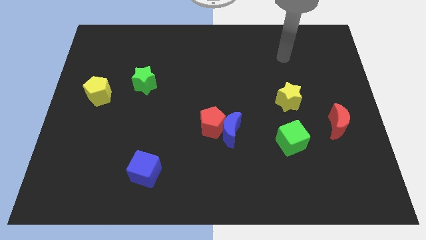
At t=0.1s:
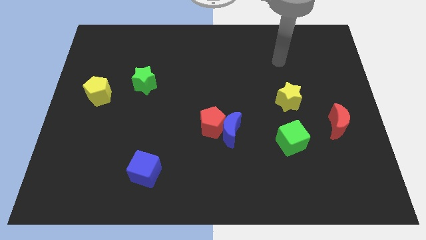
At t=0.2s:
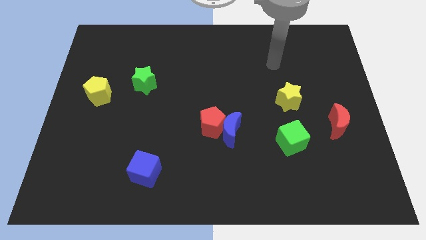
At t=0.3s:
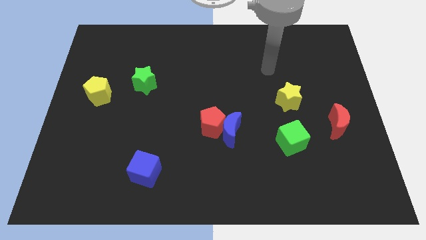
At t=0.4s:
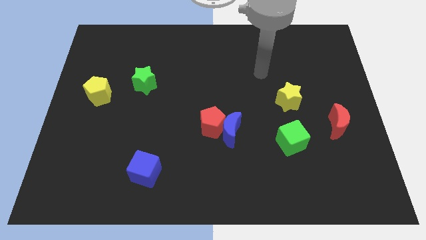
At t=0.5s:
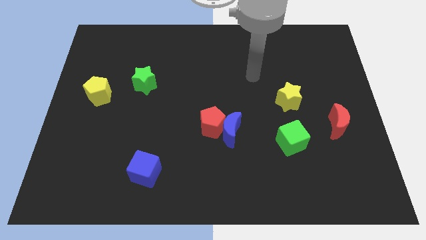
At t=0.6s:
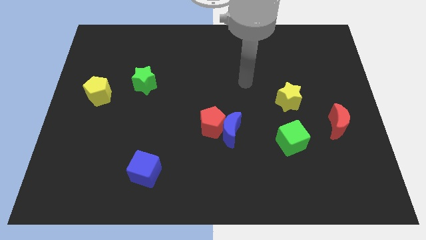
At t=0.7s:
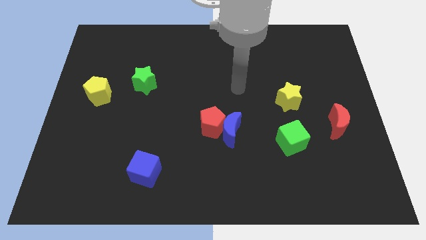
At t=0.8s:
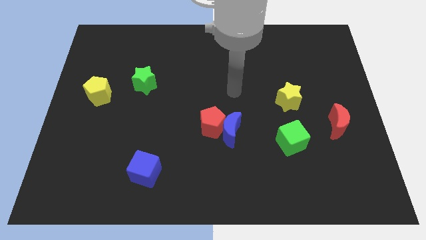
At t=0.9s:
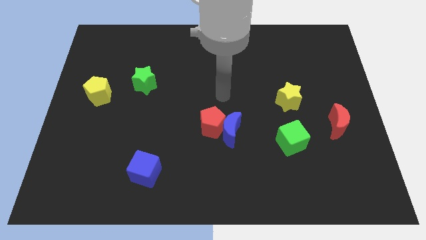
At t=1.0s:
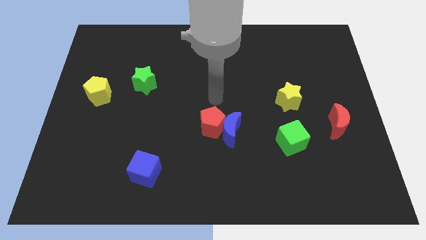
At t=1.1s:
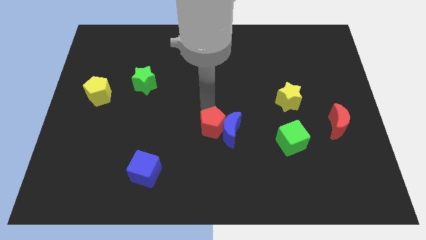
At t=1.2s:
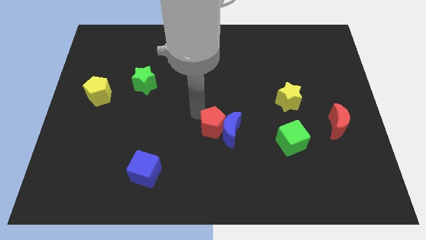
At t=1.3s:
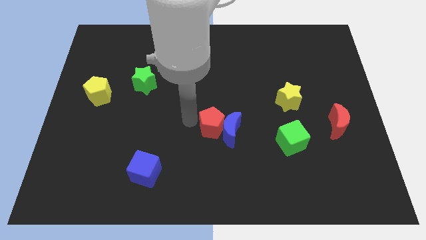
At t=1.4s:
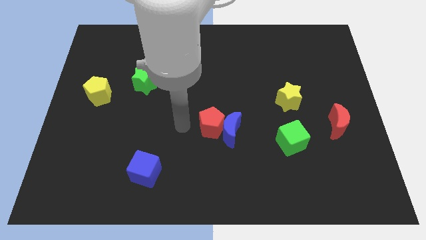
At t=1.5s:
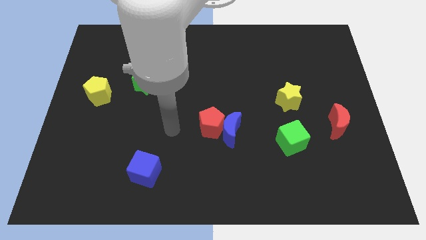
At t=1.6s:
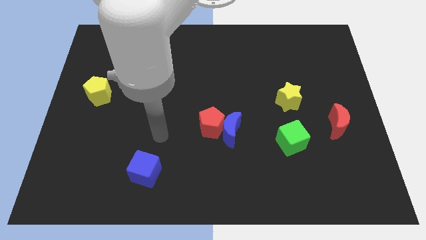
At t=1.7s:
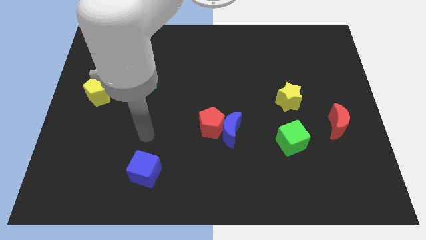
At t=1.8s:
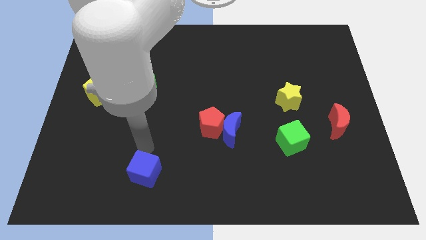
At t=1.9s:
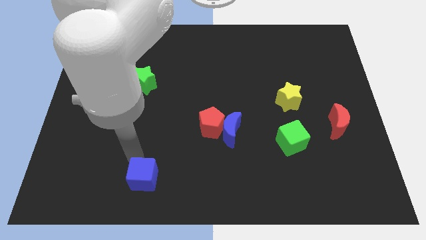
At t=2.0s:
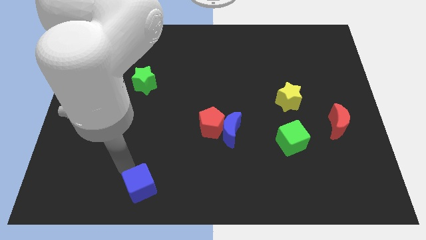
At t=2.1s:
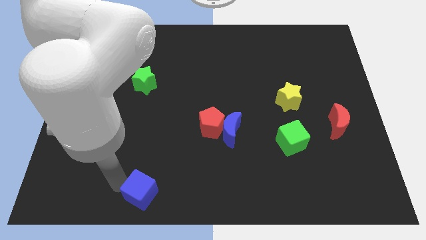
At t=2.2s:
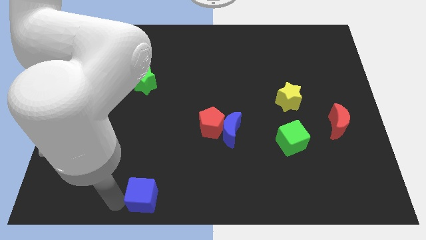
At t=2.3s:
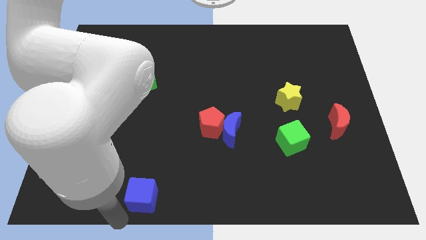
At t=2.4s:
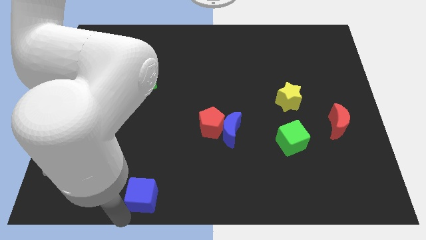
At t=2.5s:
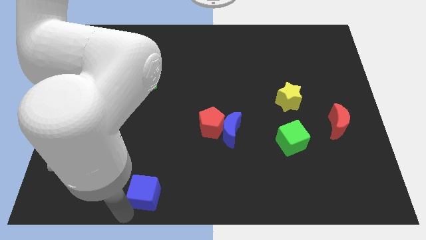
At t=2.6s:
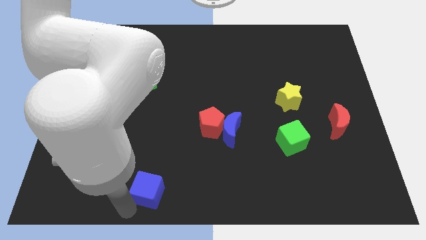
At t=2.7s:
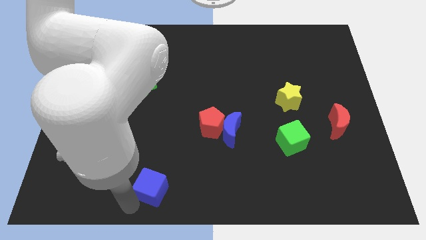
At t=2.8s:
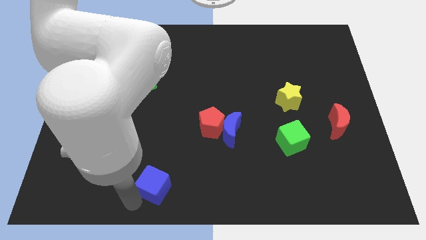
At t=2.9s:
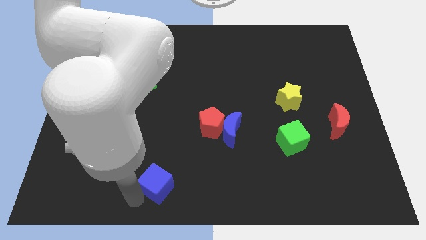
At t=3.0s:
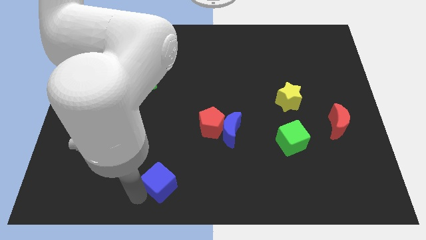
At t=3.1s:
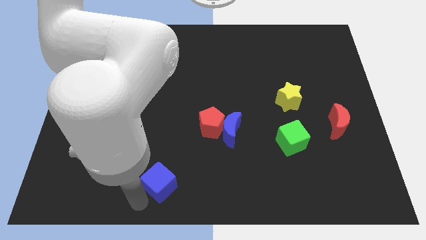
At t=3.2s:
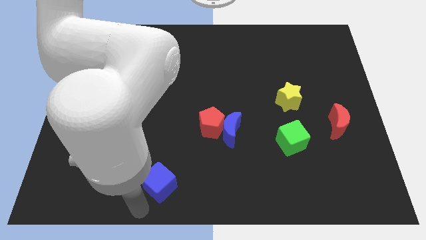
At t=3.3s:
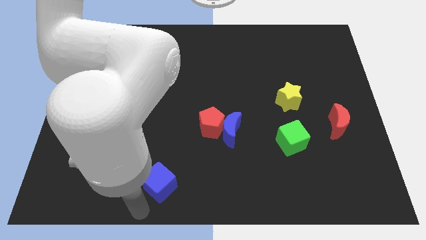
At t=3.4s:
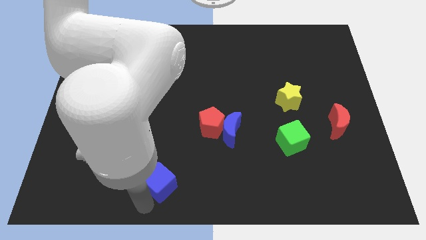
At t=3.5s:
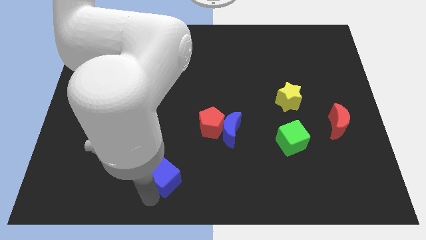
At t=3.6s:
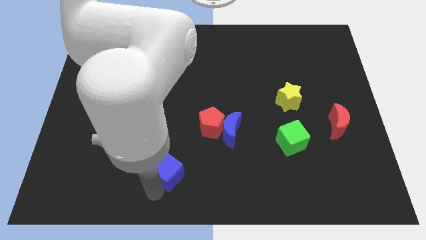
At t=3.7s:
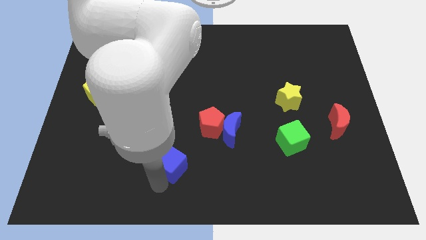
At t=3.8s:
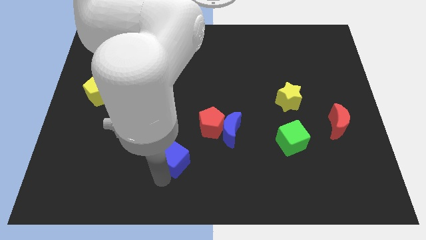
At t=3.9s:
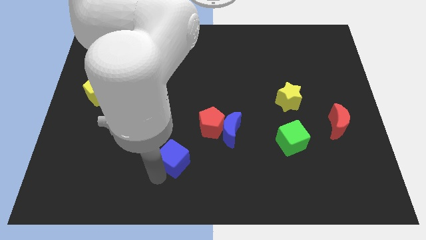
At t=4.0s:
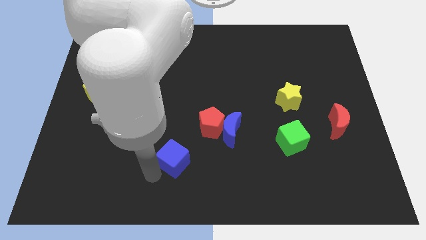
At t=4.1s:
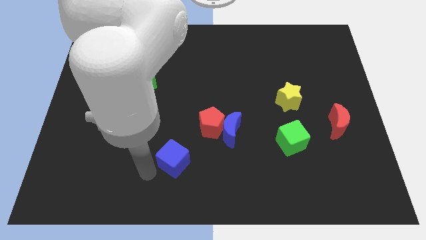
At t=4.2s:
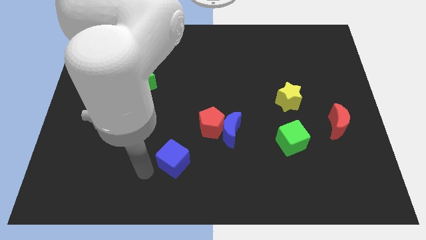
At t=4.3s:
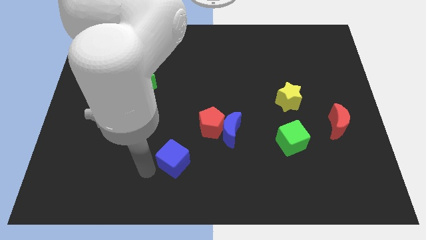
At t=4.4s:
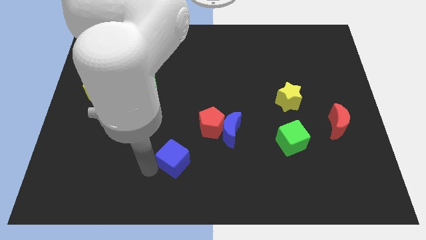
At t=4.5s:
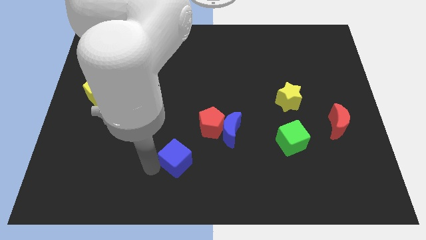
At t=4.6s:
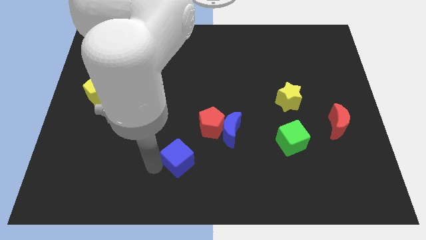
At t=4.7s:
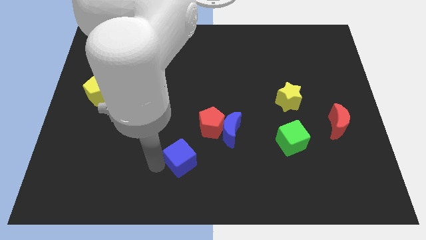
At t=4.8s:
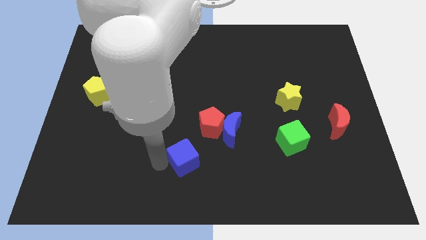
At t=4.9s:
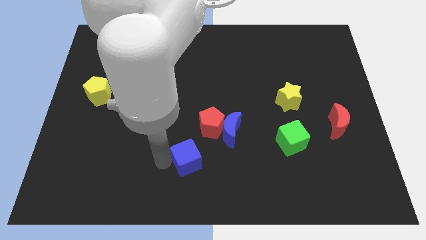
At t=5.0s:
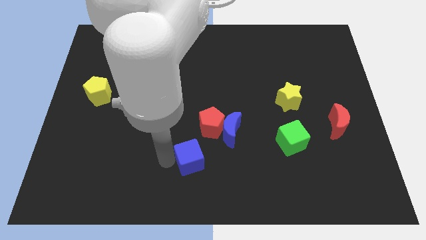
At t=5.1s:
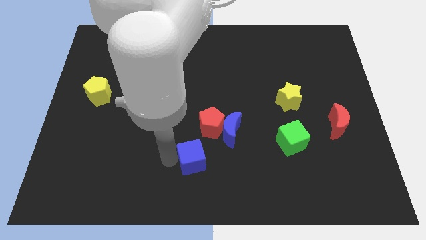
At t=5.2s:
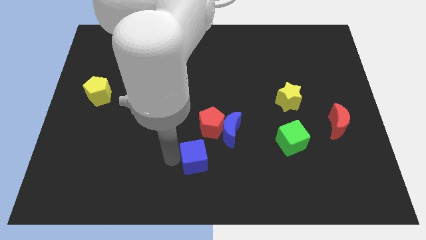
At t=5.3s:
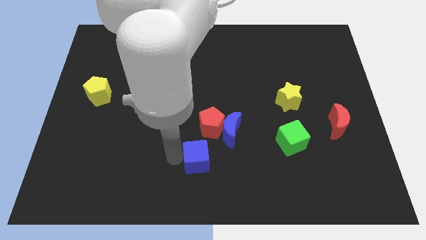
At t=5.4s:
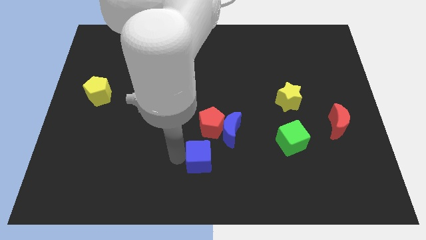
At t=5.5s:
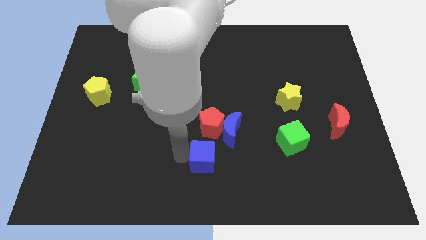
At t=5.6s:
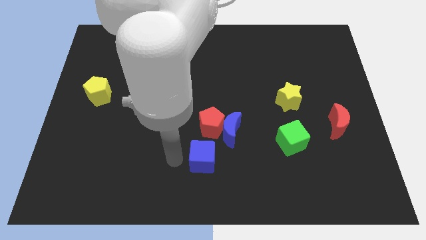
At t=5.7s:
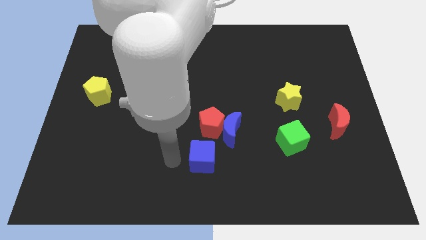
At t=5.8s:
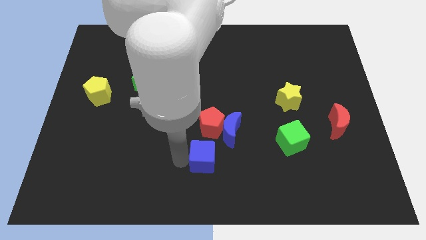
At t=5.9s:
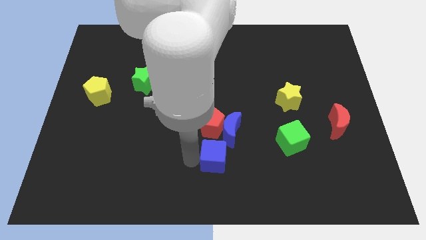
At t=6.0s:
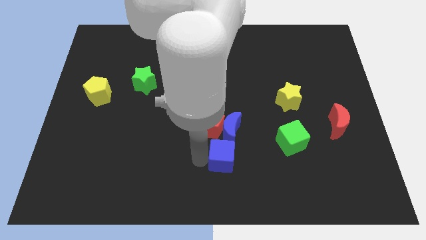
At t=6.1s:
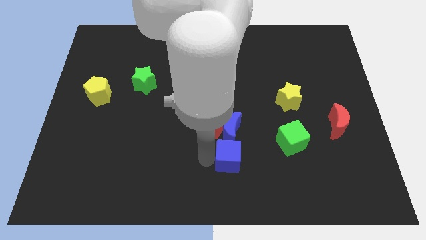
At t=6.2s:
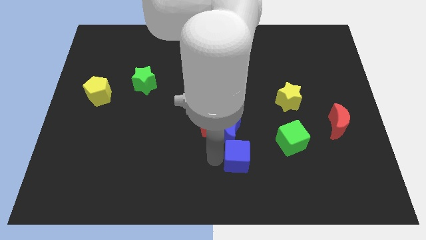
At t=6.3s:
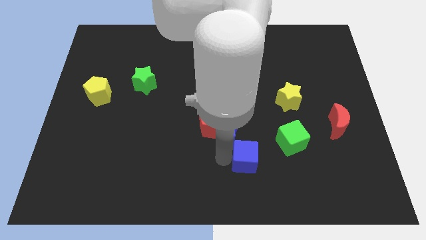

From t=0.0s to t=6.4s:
move the blue cube right

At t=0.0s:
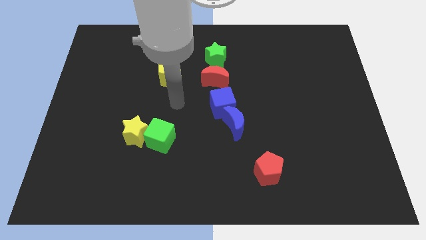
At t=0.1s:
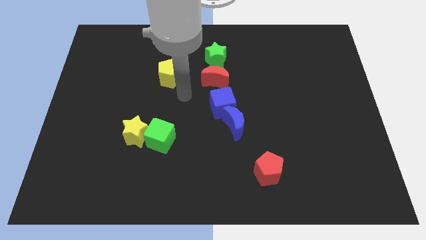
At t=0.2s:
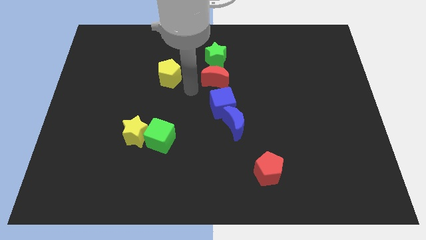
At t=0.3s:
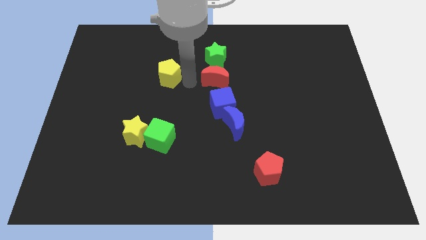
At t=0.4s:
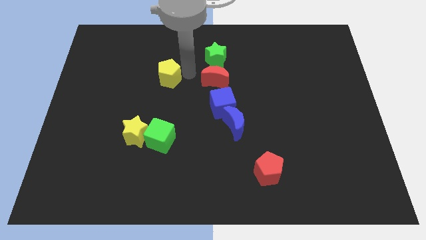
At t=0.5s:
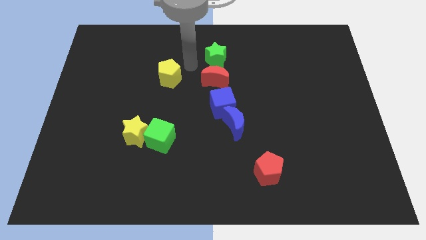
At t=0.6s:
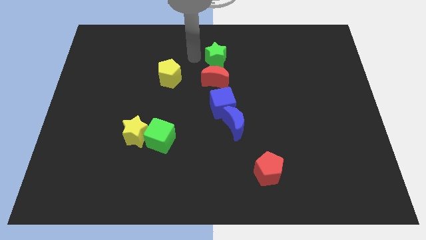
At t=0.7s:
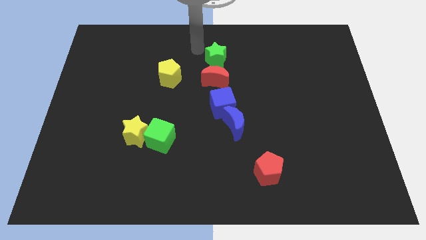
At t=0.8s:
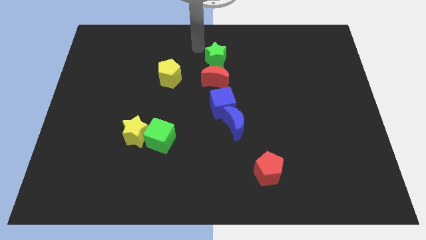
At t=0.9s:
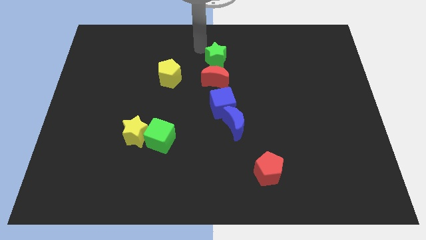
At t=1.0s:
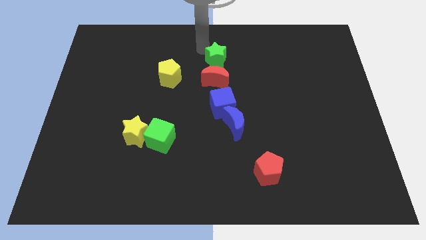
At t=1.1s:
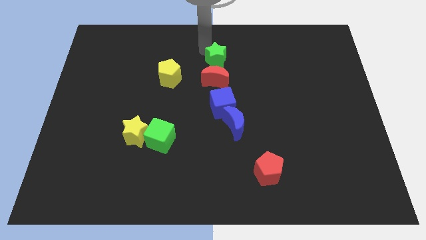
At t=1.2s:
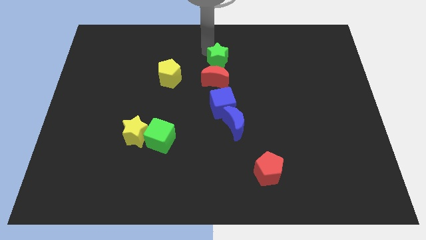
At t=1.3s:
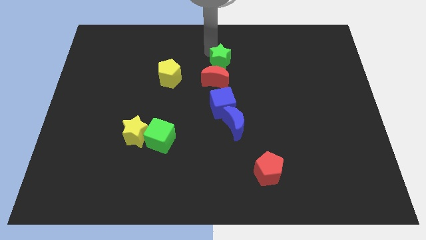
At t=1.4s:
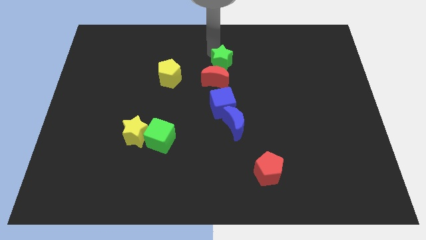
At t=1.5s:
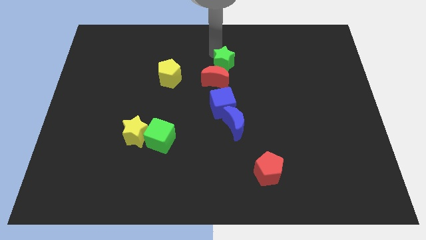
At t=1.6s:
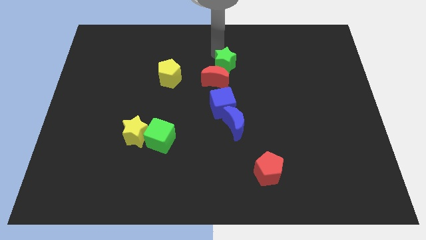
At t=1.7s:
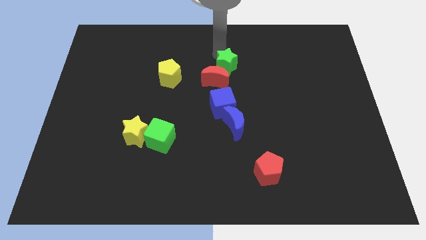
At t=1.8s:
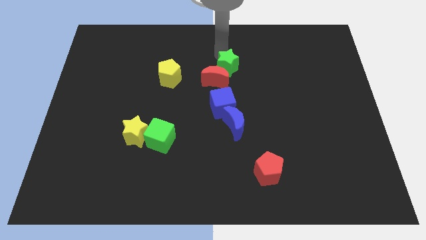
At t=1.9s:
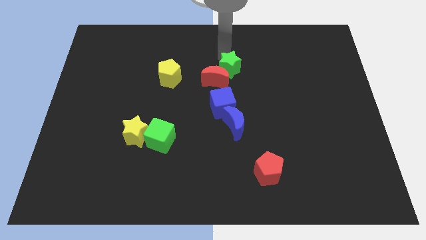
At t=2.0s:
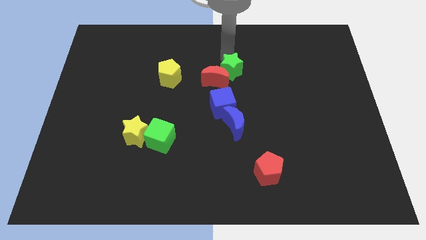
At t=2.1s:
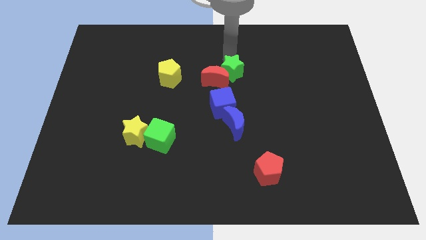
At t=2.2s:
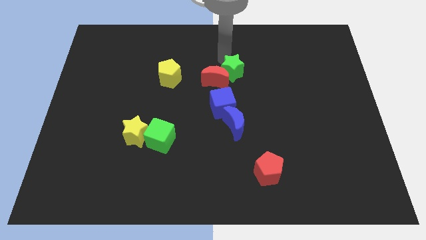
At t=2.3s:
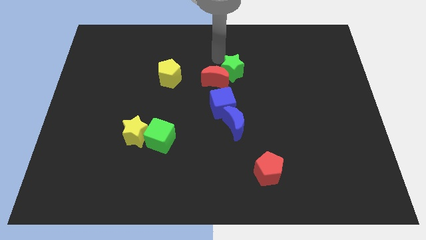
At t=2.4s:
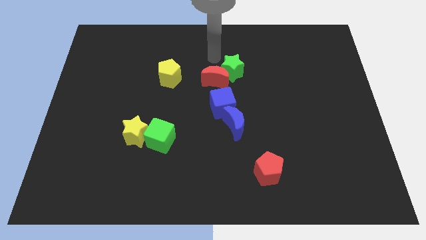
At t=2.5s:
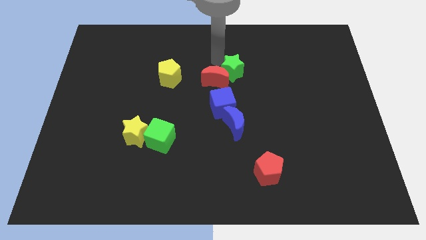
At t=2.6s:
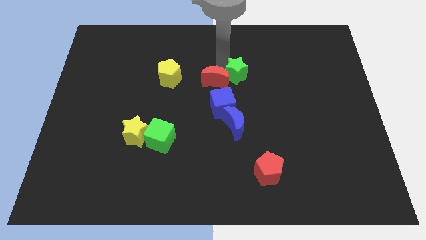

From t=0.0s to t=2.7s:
move the green star a little bit diagonally down and right
